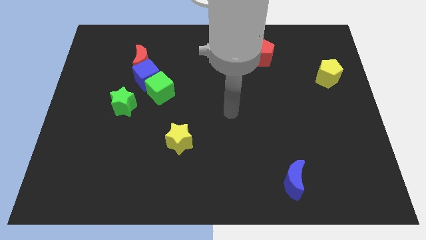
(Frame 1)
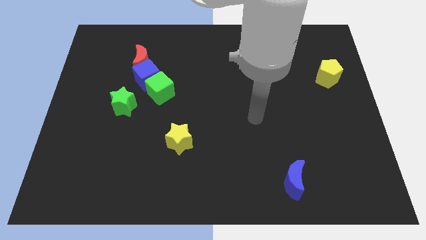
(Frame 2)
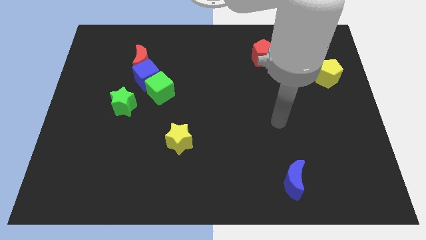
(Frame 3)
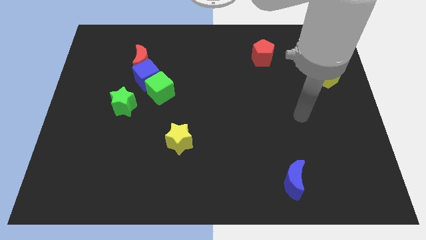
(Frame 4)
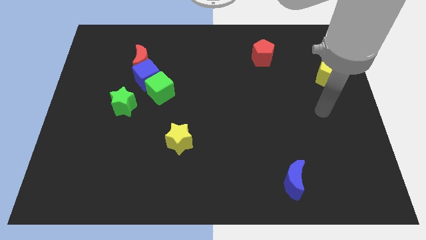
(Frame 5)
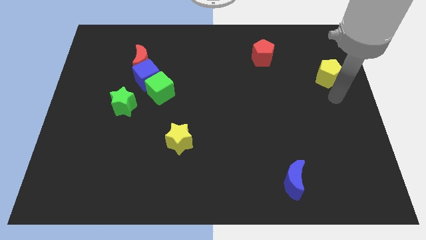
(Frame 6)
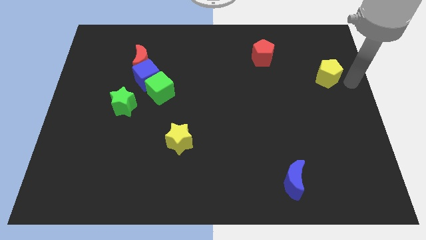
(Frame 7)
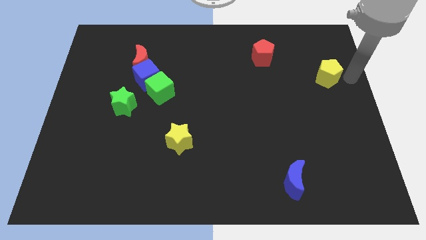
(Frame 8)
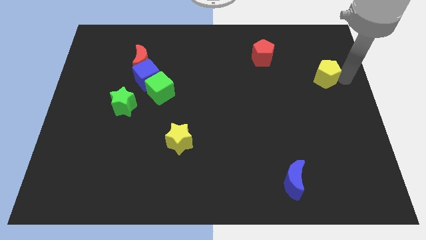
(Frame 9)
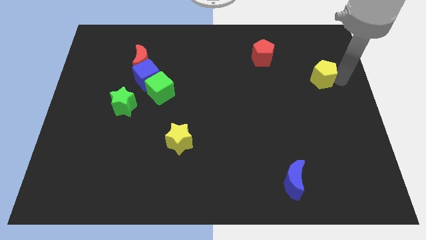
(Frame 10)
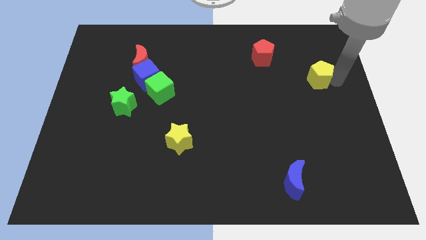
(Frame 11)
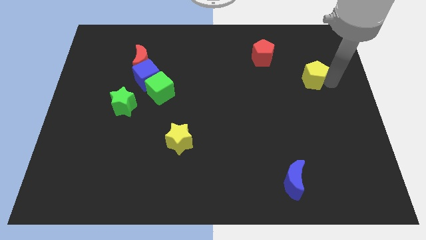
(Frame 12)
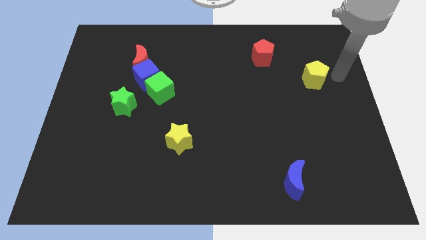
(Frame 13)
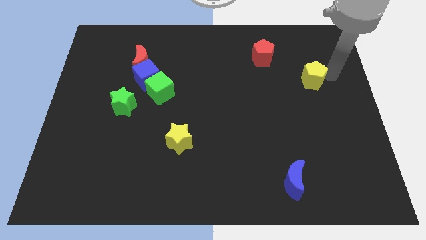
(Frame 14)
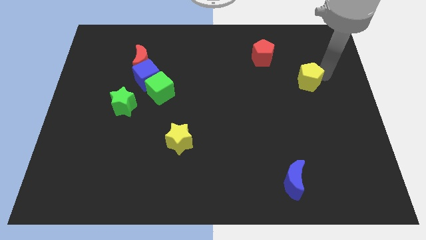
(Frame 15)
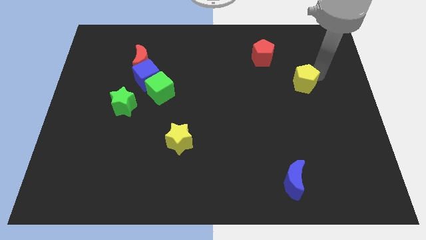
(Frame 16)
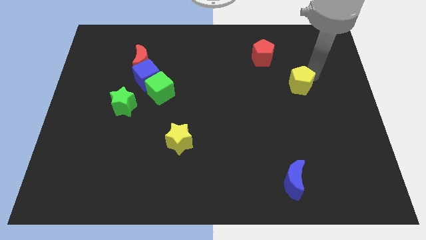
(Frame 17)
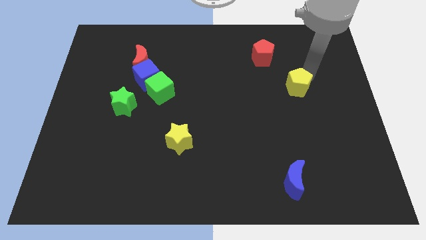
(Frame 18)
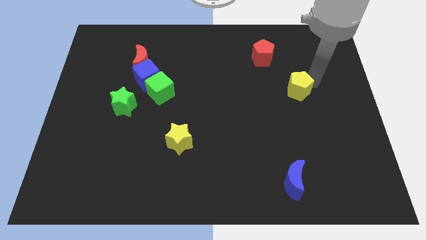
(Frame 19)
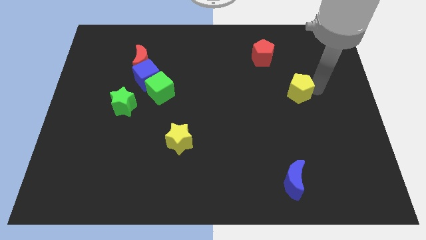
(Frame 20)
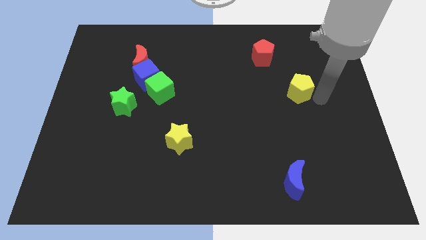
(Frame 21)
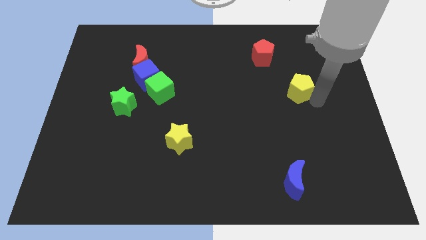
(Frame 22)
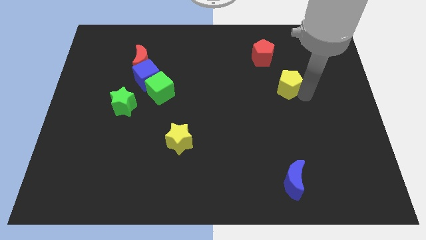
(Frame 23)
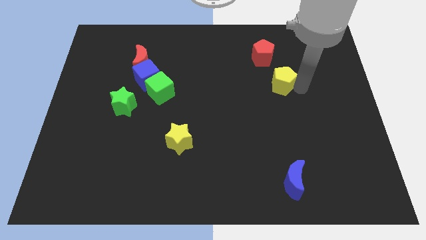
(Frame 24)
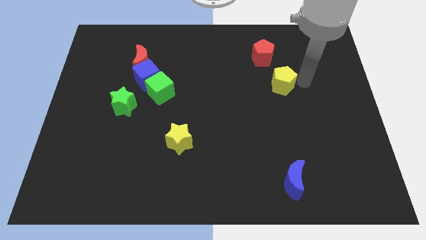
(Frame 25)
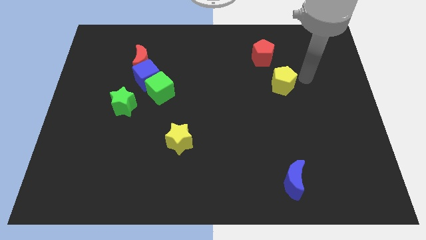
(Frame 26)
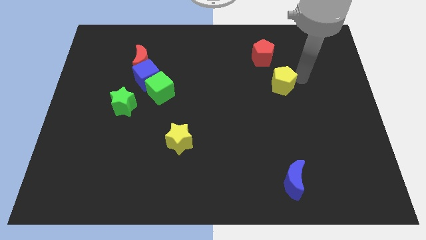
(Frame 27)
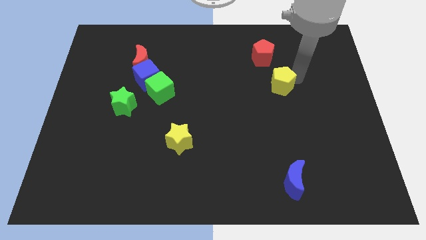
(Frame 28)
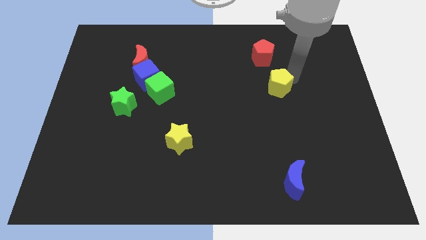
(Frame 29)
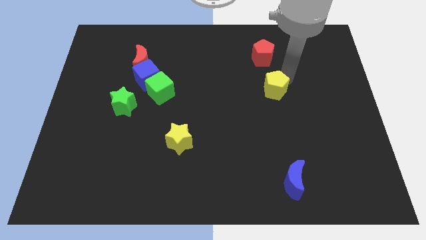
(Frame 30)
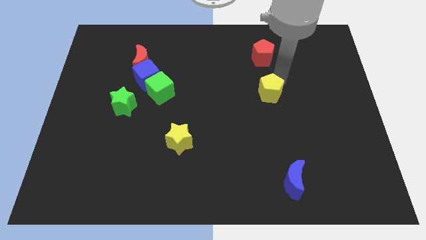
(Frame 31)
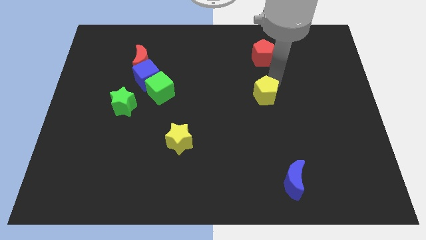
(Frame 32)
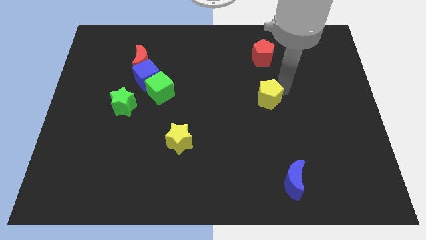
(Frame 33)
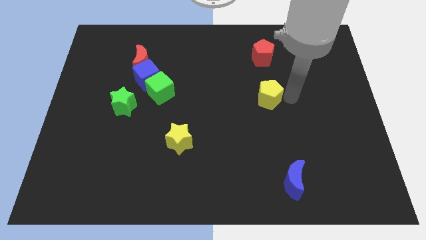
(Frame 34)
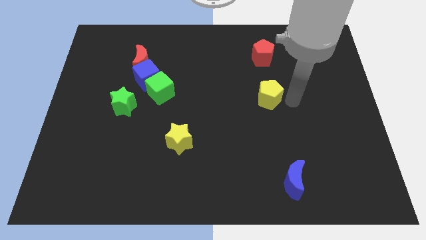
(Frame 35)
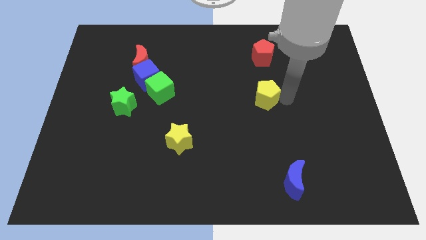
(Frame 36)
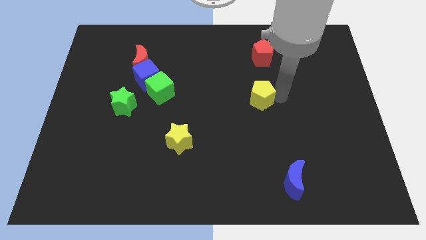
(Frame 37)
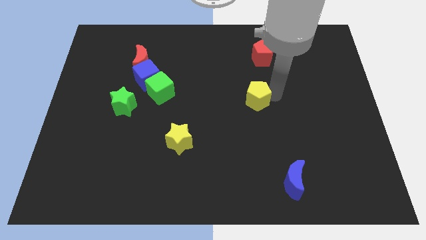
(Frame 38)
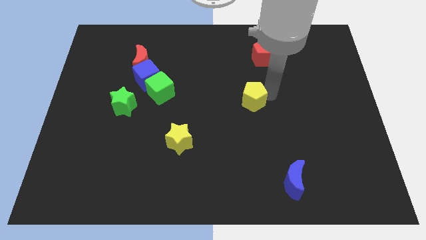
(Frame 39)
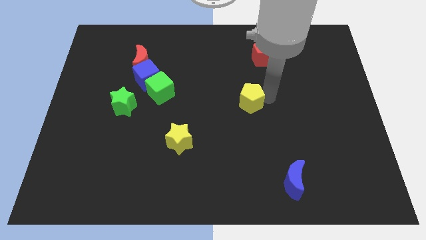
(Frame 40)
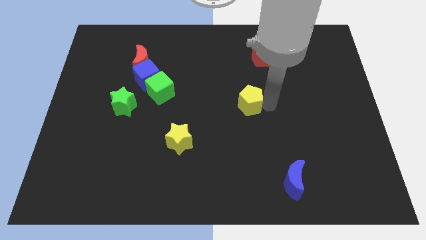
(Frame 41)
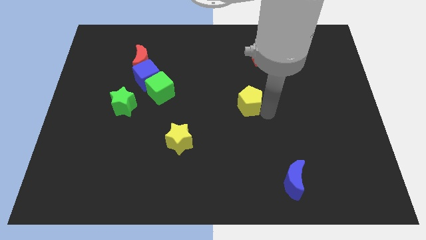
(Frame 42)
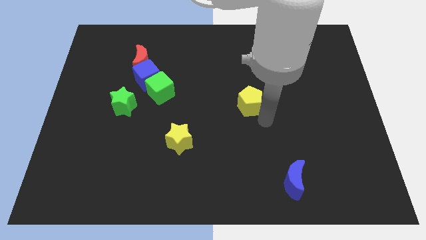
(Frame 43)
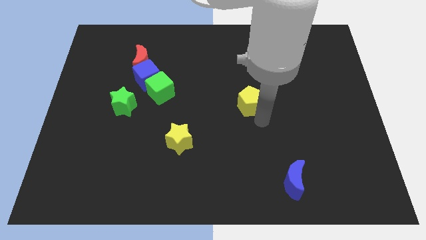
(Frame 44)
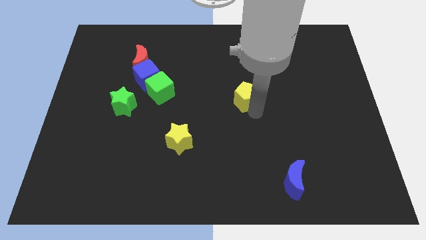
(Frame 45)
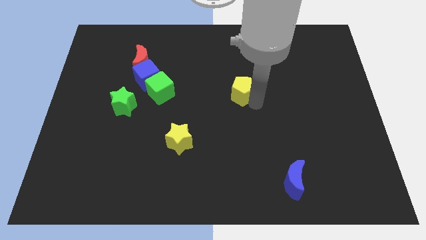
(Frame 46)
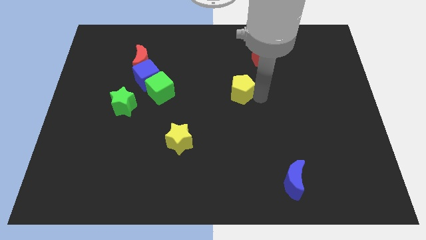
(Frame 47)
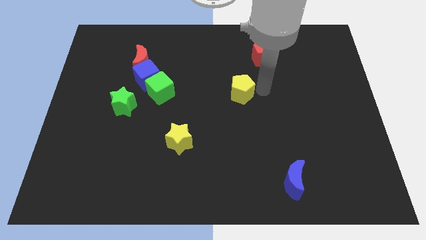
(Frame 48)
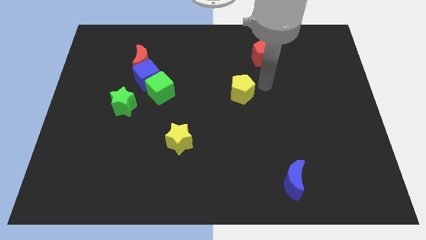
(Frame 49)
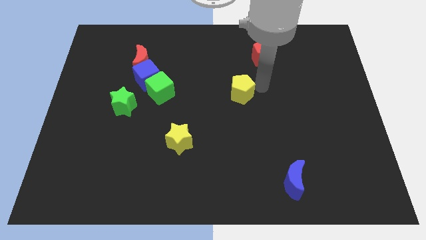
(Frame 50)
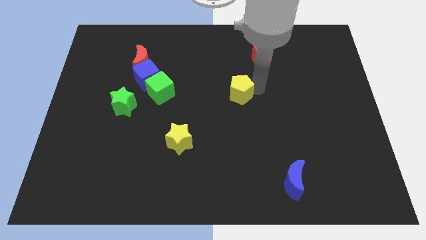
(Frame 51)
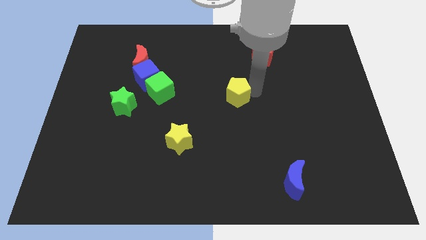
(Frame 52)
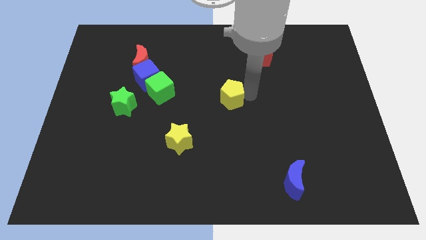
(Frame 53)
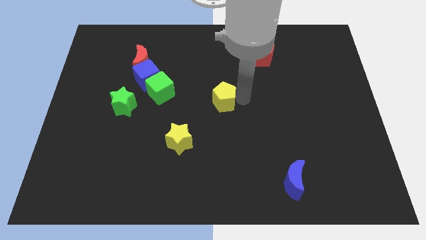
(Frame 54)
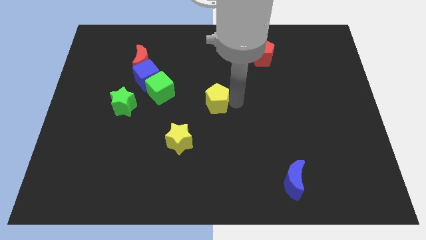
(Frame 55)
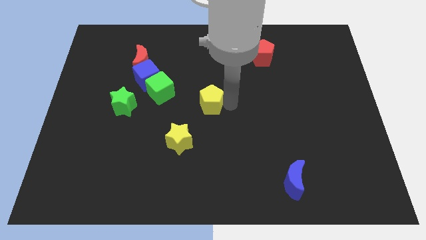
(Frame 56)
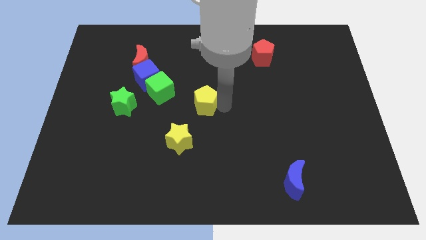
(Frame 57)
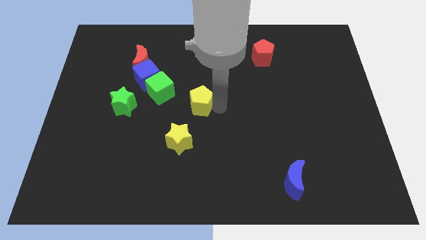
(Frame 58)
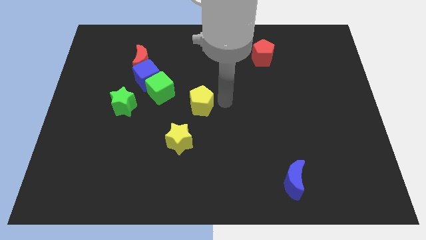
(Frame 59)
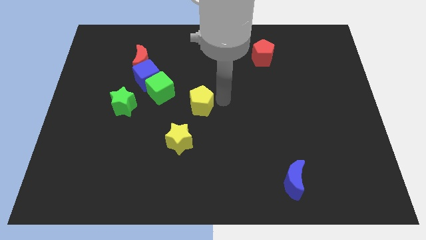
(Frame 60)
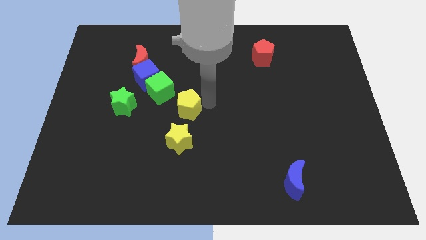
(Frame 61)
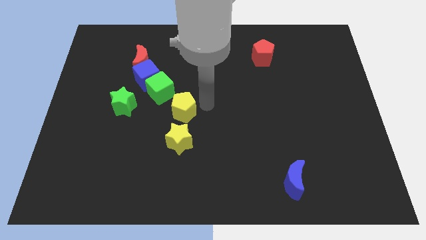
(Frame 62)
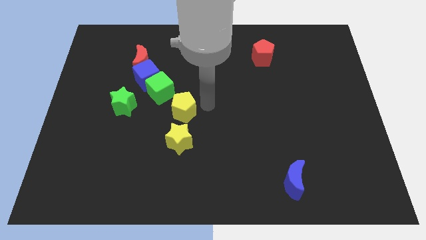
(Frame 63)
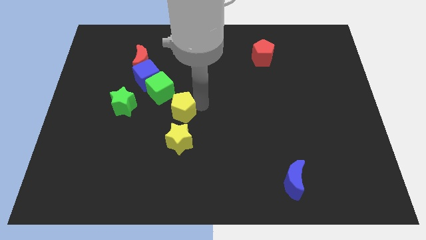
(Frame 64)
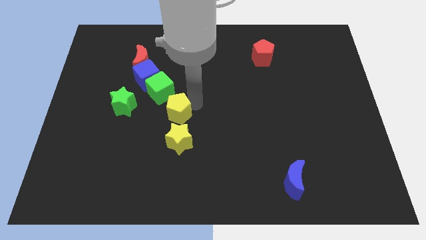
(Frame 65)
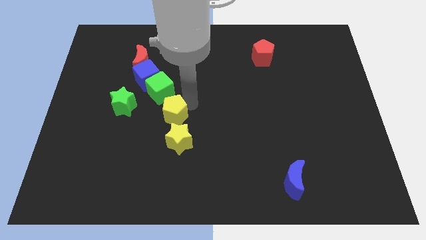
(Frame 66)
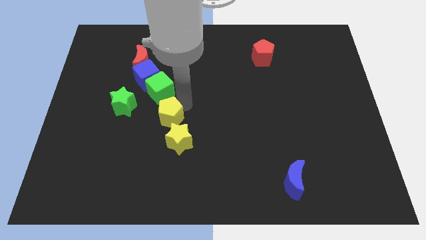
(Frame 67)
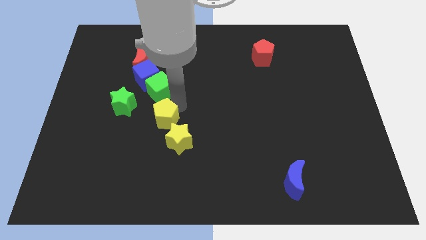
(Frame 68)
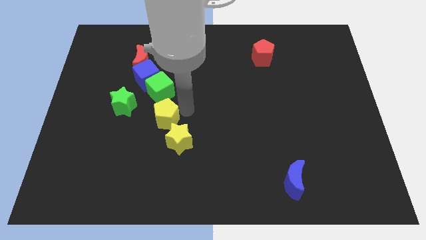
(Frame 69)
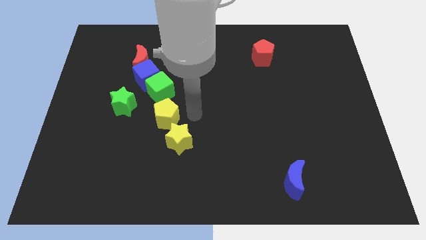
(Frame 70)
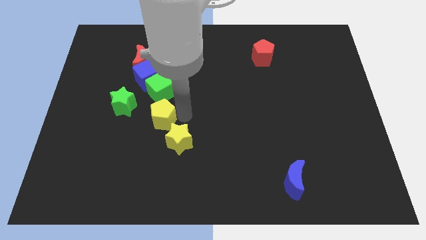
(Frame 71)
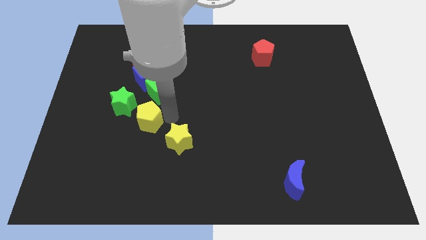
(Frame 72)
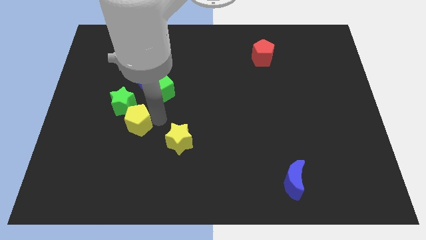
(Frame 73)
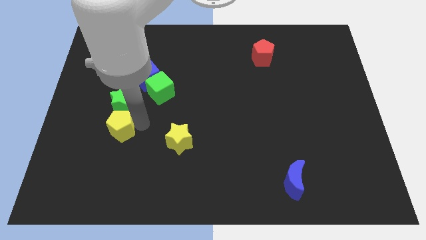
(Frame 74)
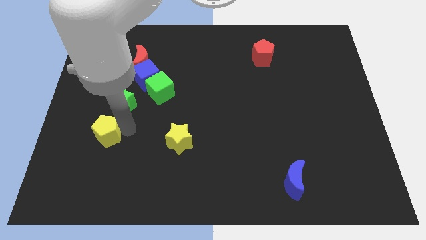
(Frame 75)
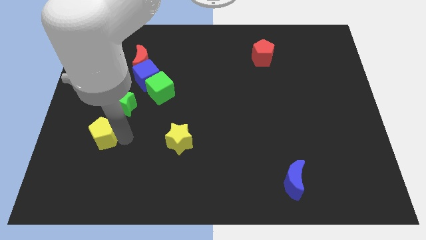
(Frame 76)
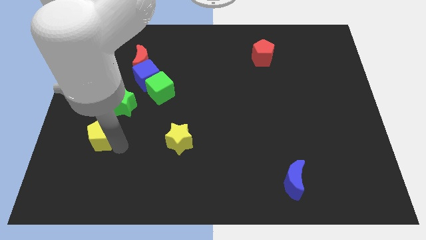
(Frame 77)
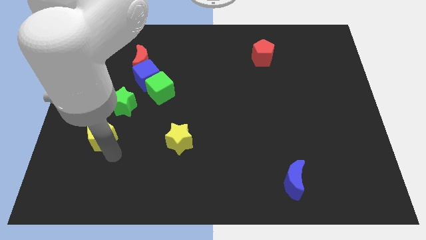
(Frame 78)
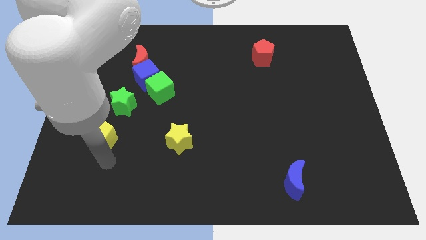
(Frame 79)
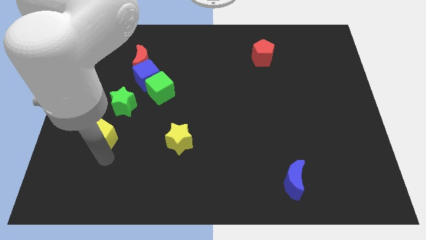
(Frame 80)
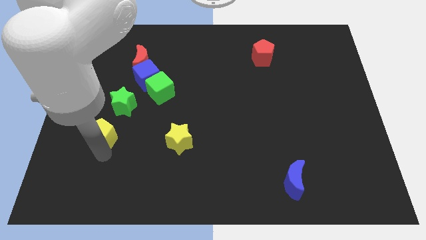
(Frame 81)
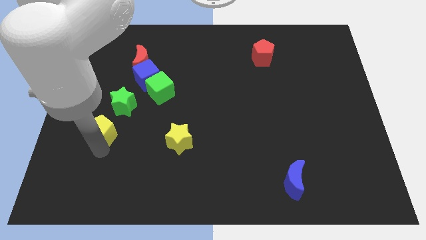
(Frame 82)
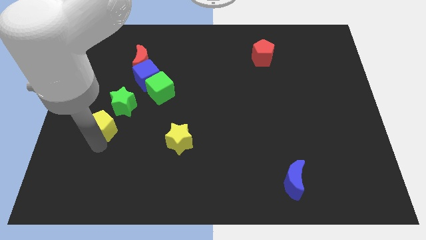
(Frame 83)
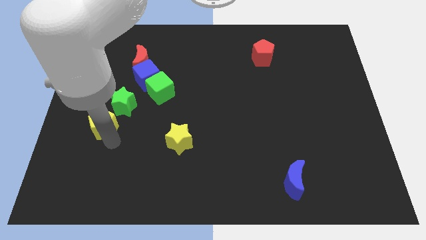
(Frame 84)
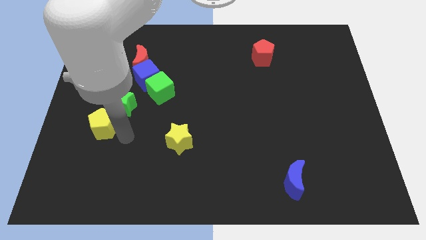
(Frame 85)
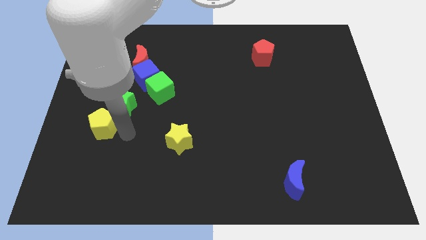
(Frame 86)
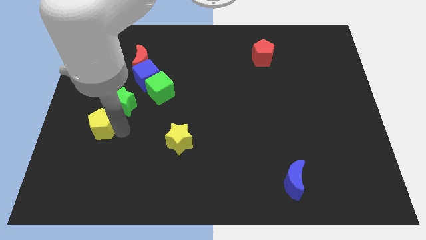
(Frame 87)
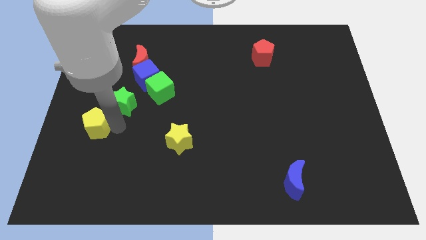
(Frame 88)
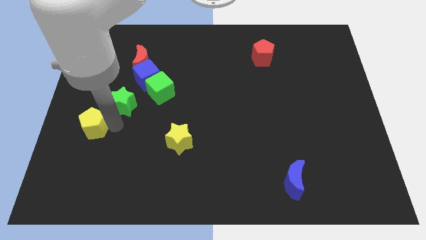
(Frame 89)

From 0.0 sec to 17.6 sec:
put the yellow pentagon to the left side
